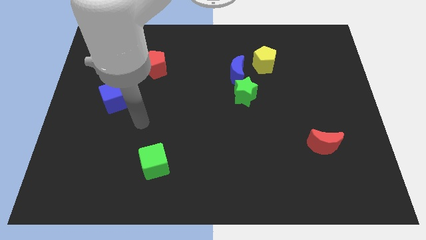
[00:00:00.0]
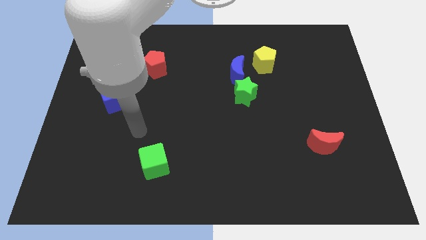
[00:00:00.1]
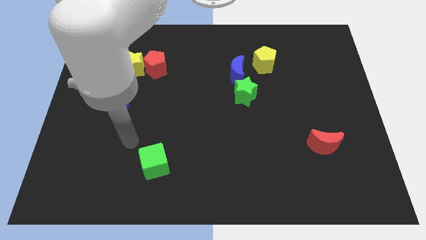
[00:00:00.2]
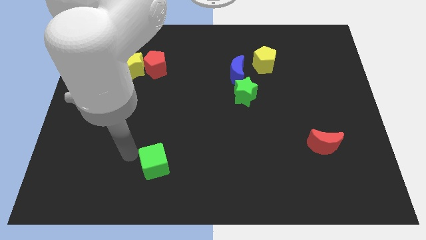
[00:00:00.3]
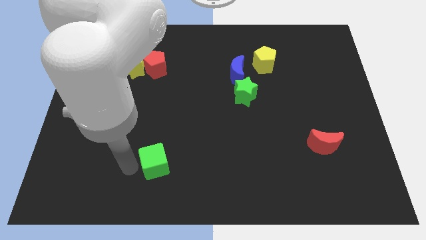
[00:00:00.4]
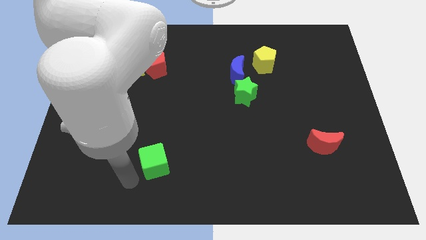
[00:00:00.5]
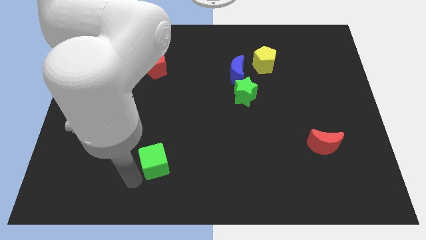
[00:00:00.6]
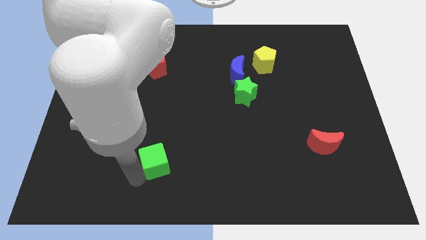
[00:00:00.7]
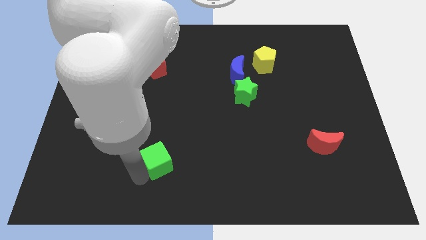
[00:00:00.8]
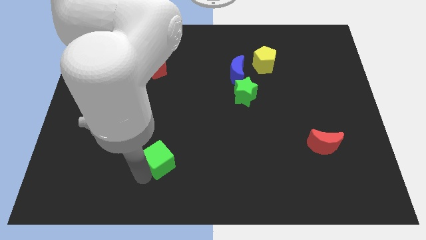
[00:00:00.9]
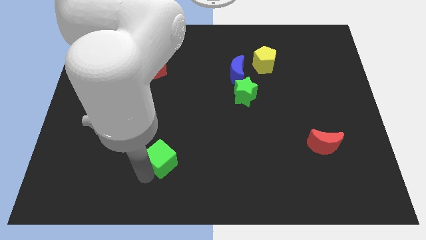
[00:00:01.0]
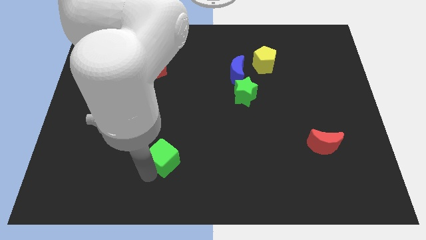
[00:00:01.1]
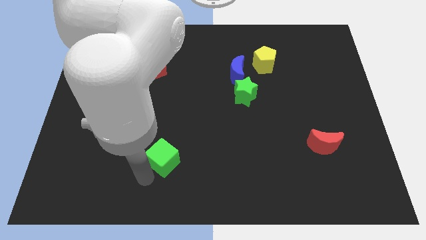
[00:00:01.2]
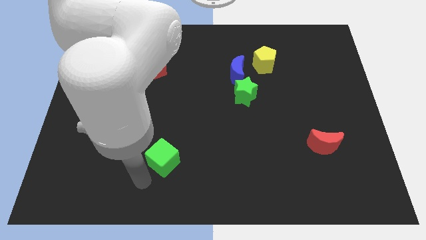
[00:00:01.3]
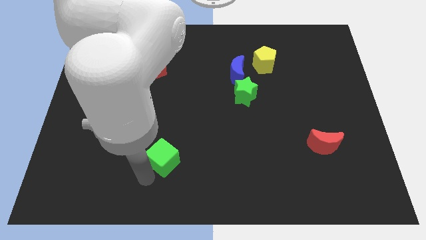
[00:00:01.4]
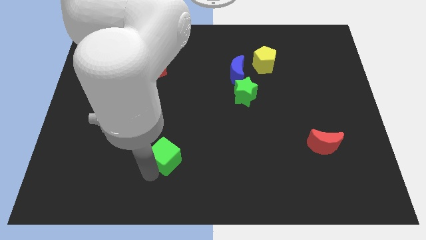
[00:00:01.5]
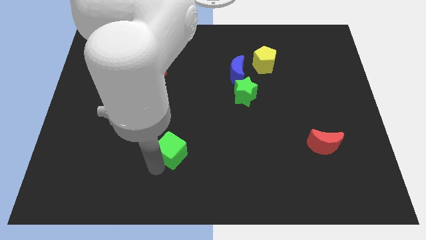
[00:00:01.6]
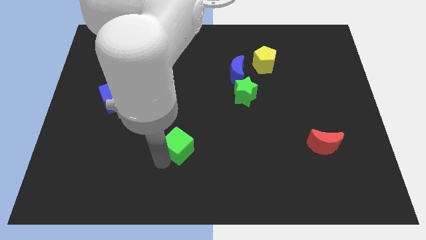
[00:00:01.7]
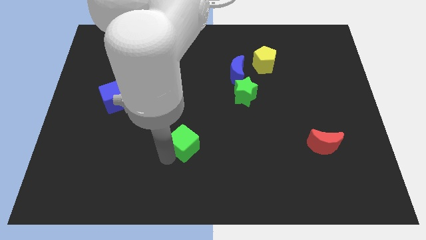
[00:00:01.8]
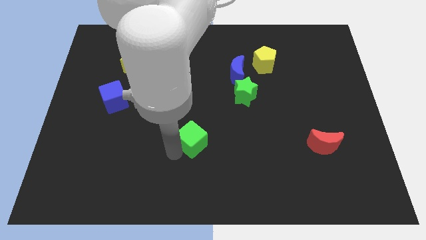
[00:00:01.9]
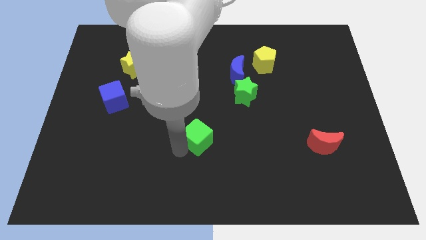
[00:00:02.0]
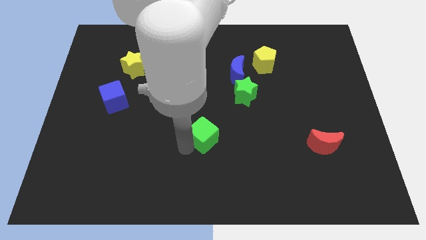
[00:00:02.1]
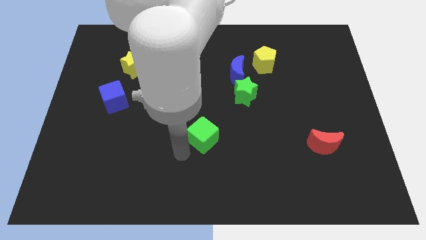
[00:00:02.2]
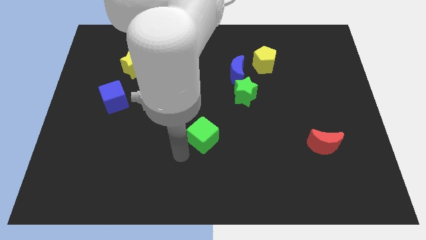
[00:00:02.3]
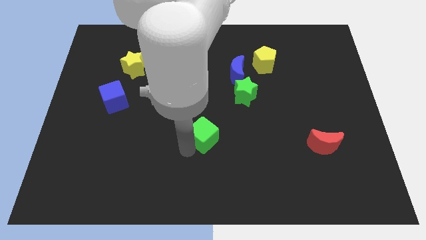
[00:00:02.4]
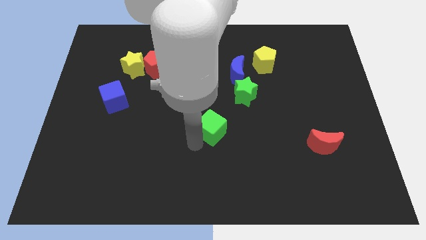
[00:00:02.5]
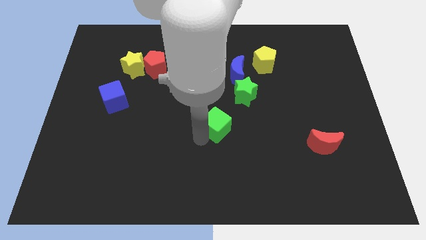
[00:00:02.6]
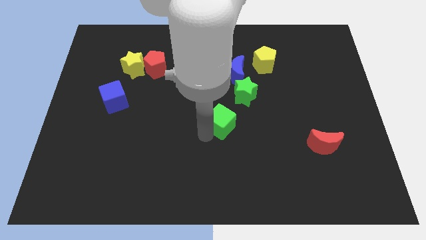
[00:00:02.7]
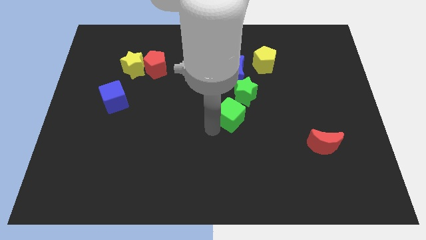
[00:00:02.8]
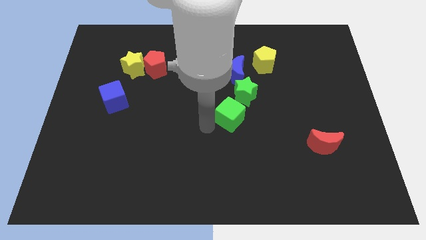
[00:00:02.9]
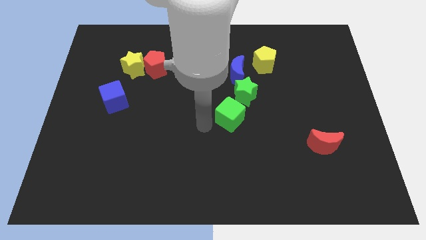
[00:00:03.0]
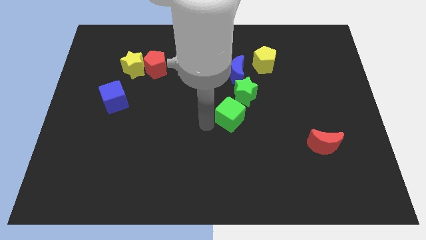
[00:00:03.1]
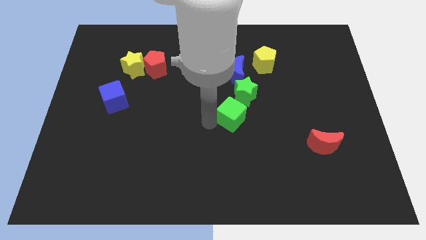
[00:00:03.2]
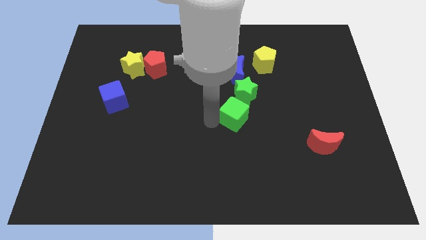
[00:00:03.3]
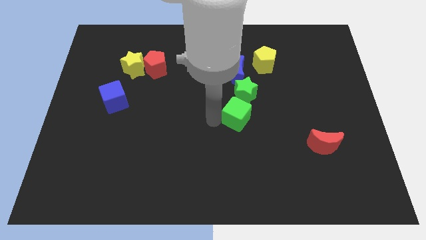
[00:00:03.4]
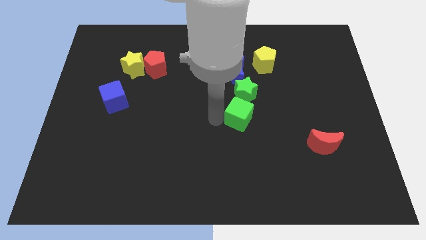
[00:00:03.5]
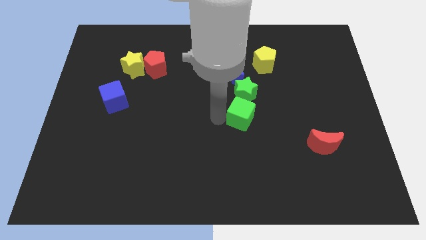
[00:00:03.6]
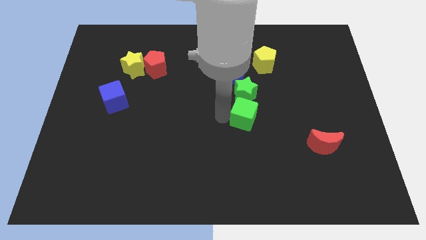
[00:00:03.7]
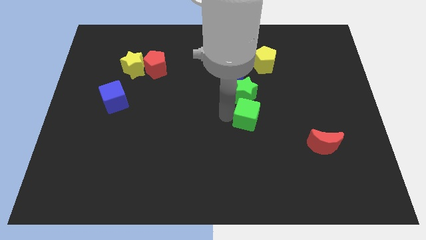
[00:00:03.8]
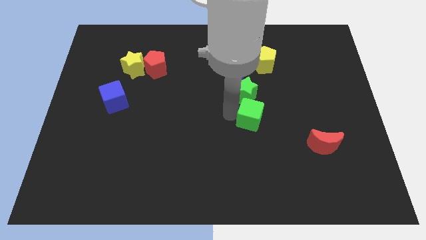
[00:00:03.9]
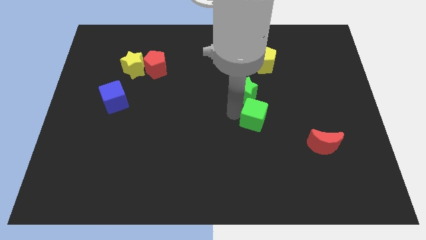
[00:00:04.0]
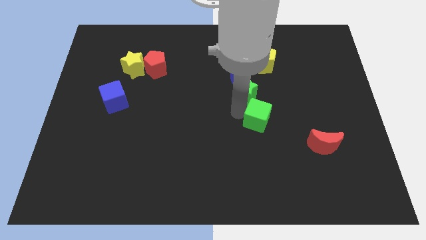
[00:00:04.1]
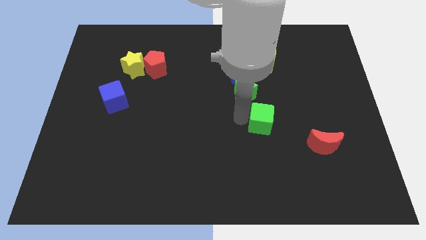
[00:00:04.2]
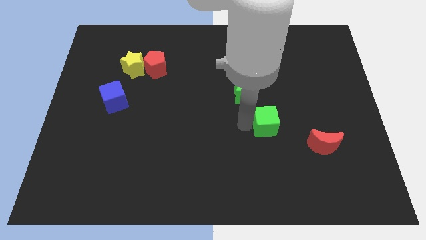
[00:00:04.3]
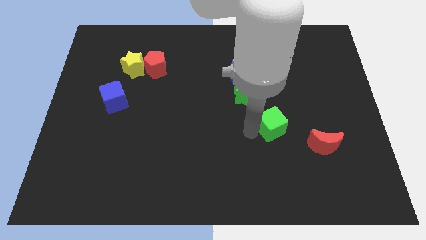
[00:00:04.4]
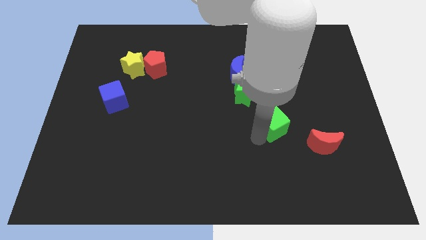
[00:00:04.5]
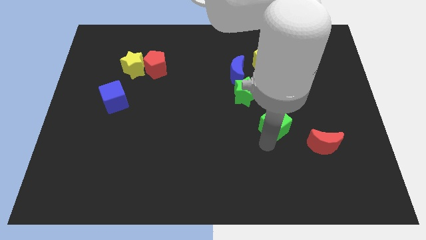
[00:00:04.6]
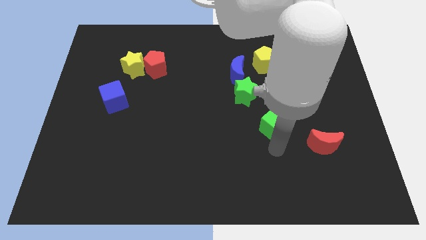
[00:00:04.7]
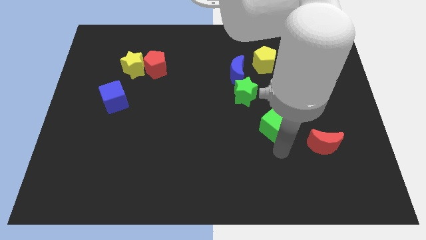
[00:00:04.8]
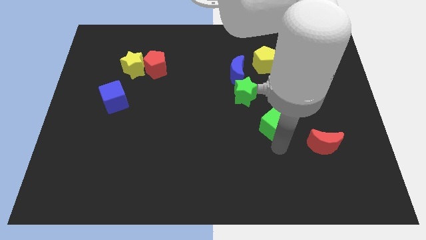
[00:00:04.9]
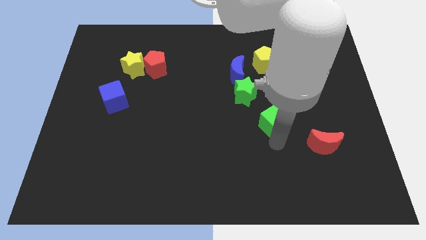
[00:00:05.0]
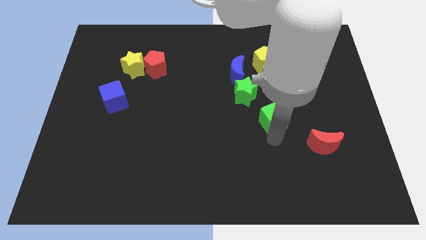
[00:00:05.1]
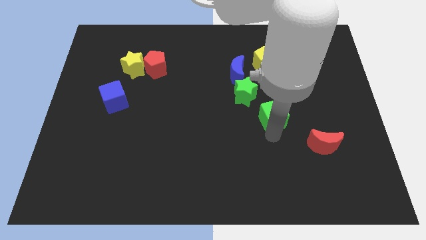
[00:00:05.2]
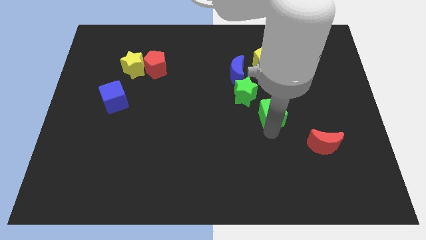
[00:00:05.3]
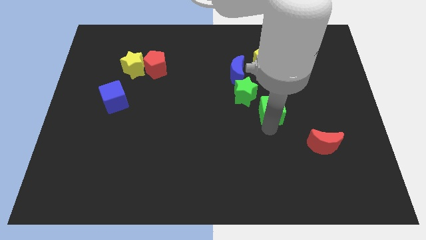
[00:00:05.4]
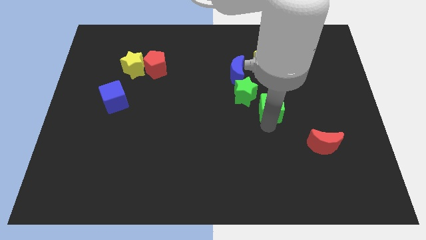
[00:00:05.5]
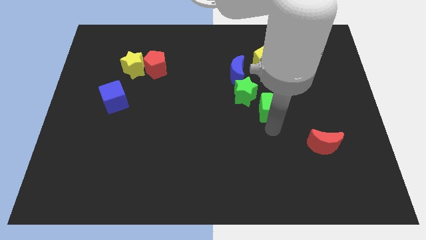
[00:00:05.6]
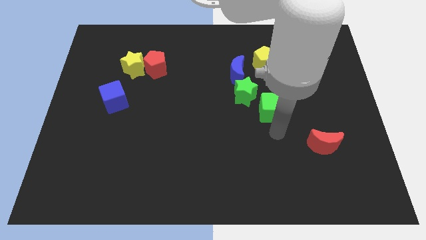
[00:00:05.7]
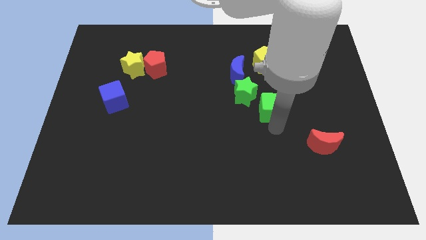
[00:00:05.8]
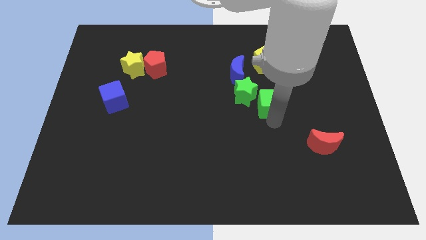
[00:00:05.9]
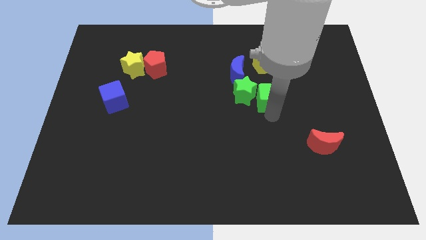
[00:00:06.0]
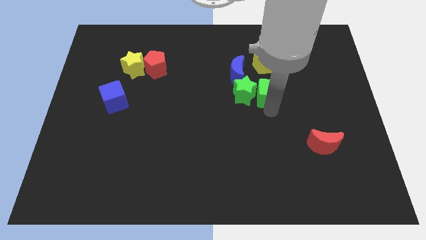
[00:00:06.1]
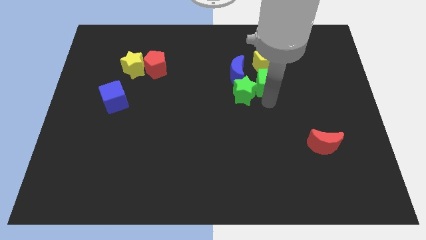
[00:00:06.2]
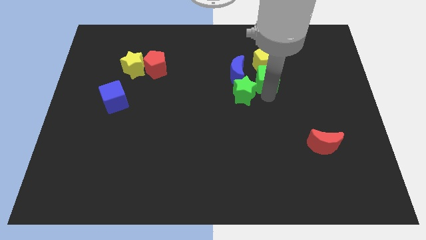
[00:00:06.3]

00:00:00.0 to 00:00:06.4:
push the green cube close to the yellow pentagon

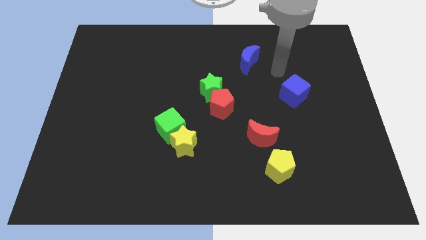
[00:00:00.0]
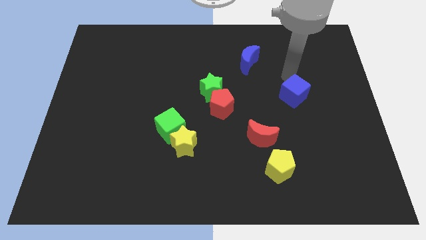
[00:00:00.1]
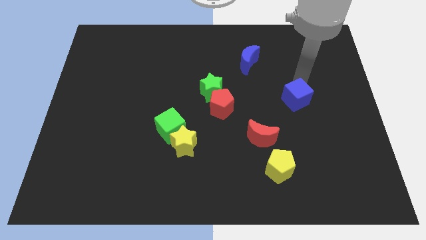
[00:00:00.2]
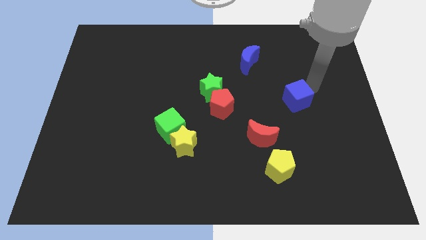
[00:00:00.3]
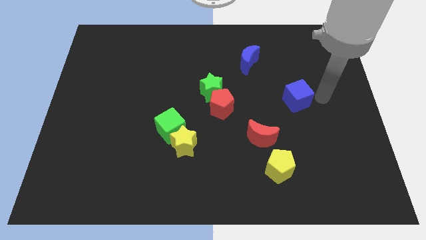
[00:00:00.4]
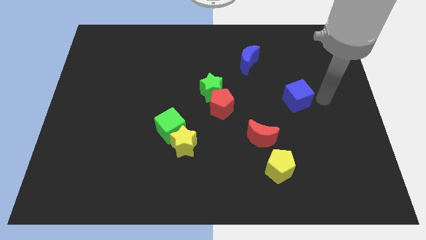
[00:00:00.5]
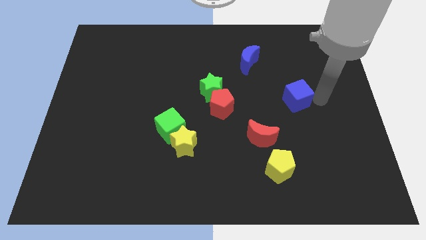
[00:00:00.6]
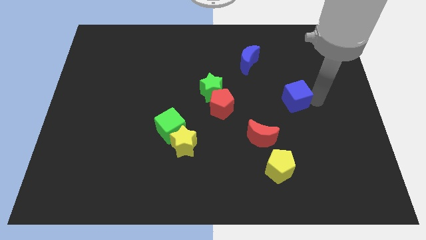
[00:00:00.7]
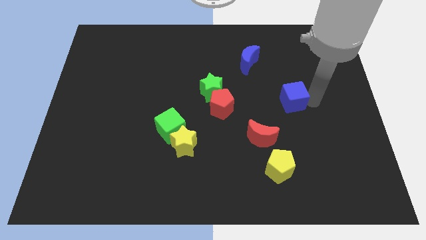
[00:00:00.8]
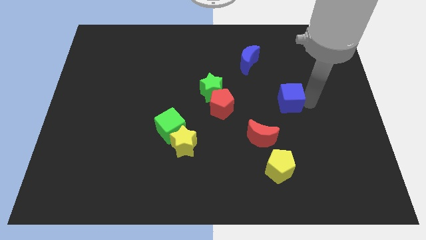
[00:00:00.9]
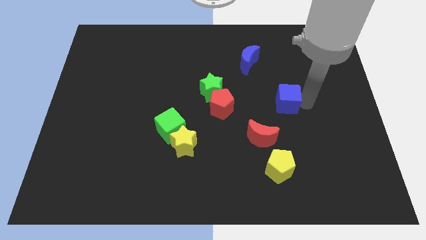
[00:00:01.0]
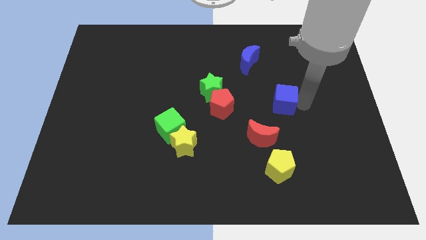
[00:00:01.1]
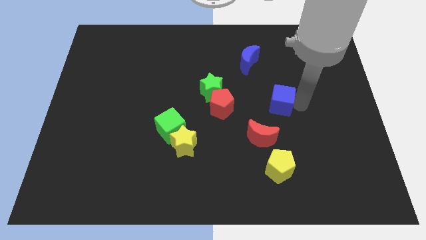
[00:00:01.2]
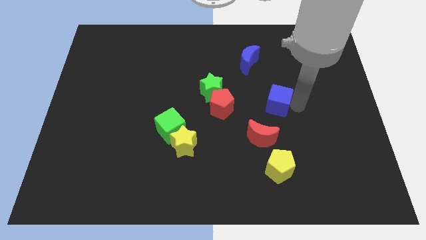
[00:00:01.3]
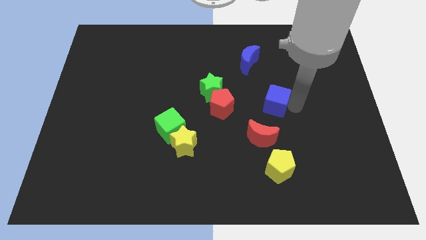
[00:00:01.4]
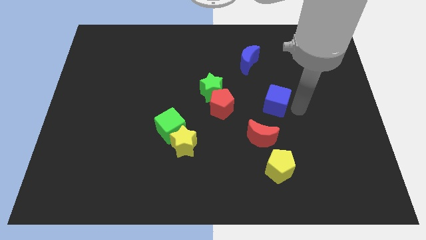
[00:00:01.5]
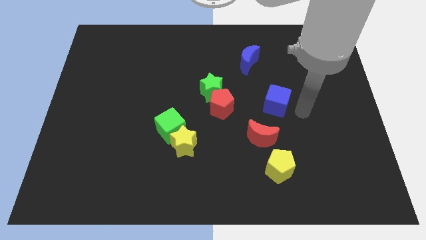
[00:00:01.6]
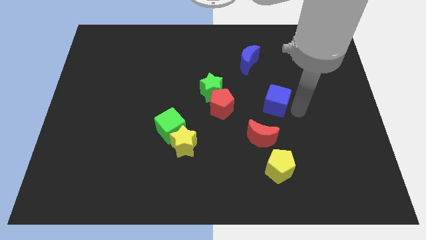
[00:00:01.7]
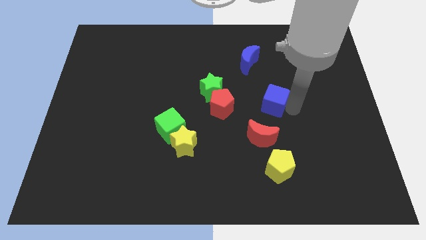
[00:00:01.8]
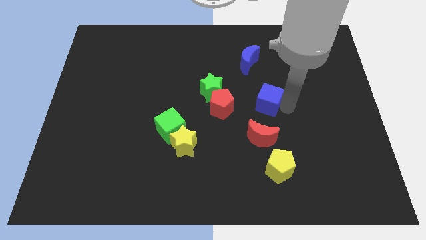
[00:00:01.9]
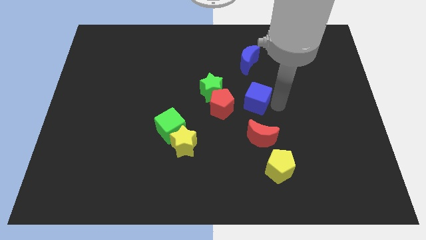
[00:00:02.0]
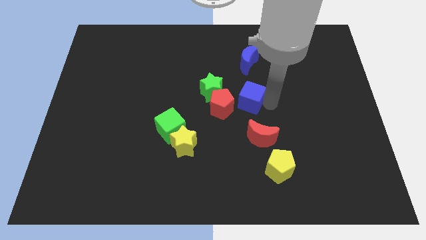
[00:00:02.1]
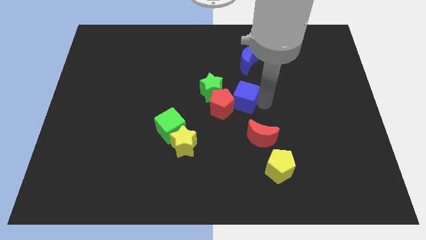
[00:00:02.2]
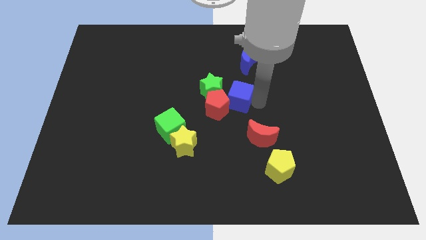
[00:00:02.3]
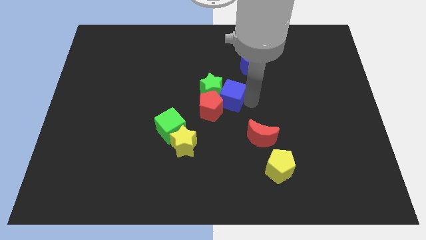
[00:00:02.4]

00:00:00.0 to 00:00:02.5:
push the blue cube next to the green star
